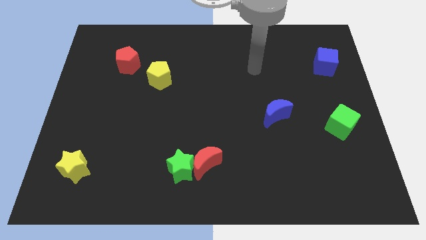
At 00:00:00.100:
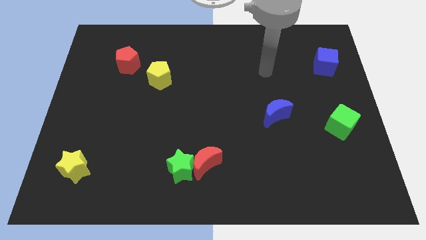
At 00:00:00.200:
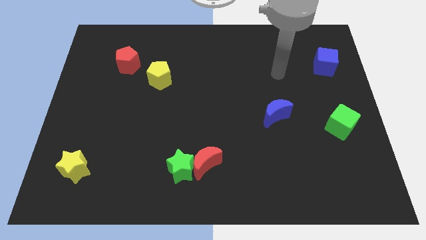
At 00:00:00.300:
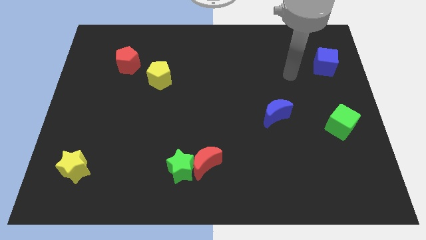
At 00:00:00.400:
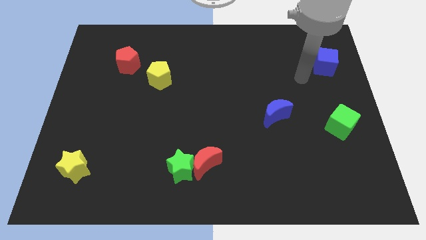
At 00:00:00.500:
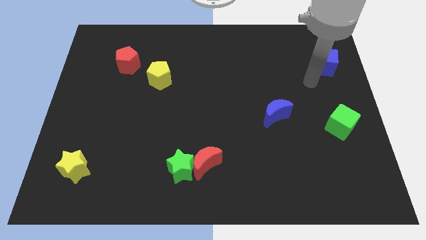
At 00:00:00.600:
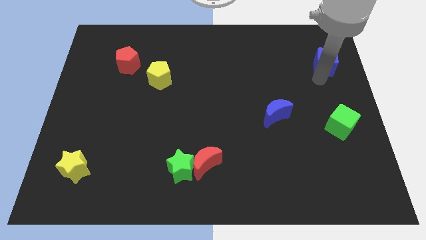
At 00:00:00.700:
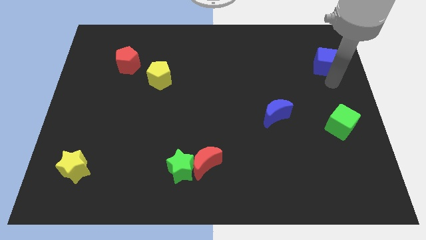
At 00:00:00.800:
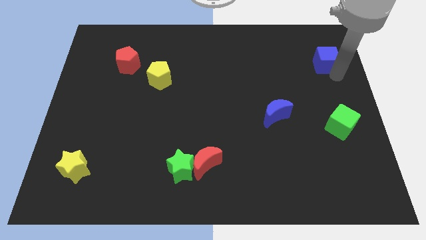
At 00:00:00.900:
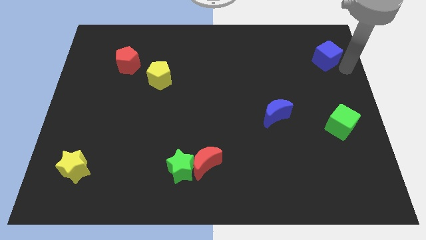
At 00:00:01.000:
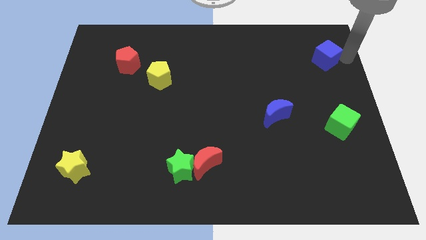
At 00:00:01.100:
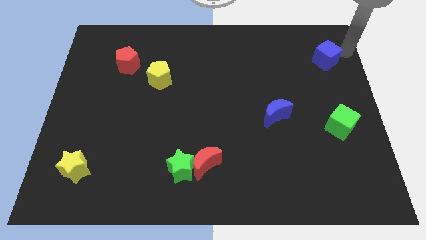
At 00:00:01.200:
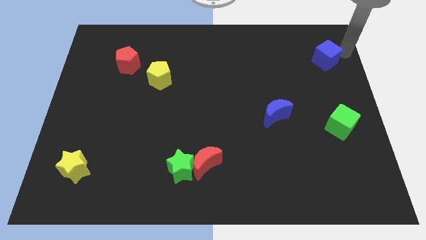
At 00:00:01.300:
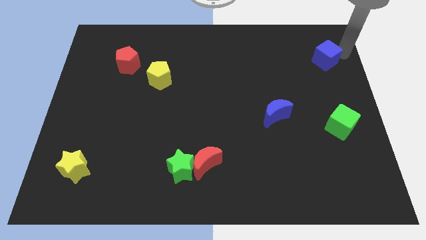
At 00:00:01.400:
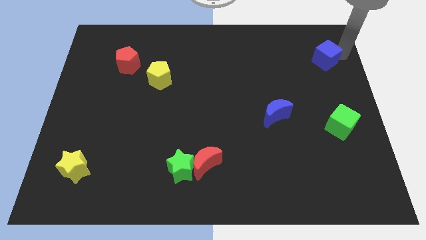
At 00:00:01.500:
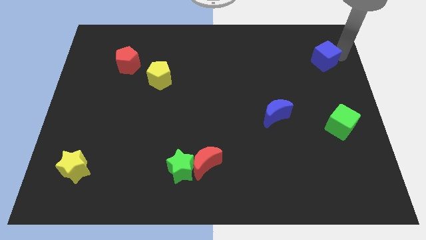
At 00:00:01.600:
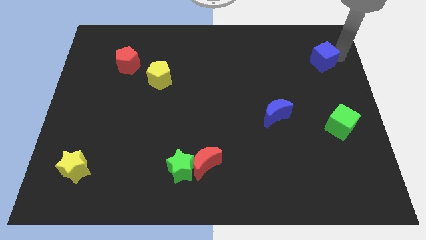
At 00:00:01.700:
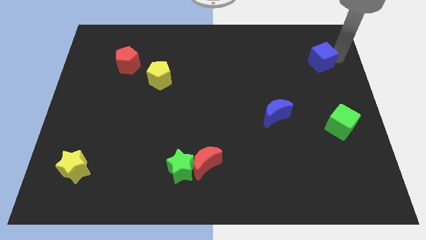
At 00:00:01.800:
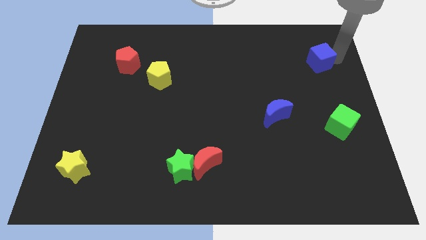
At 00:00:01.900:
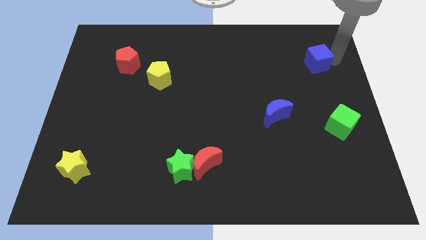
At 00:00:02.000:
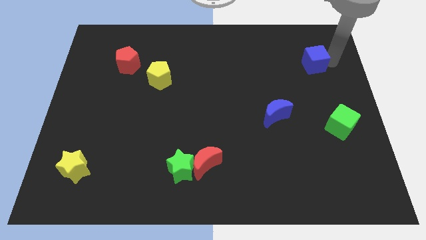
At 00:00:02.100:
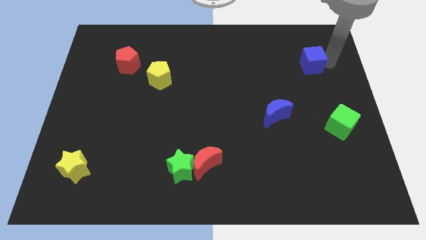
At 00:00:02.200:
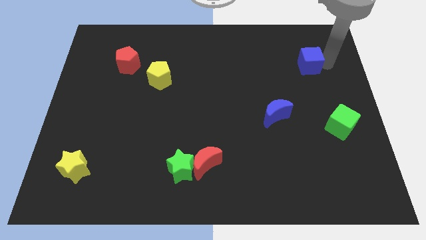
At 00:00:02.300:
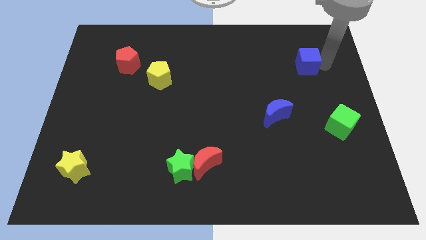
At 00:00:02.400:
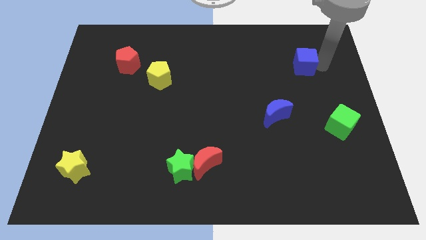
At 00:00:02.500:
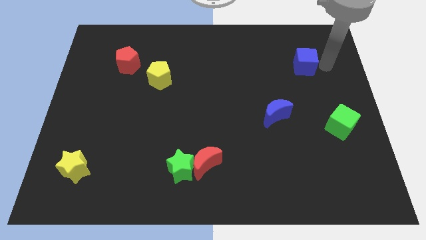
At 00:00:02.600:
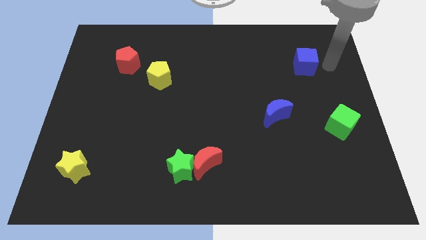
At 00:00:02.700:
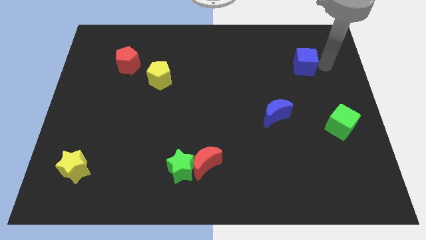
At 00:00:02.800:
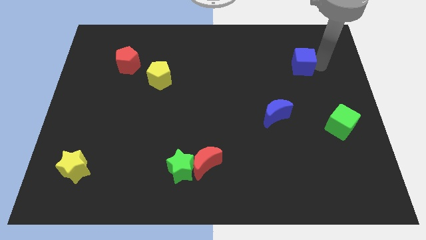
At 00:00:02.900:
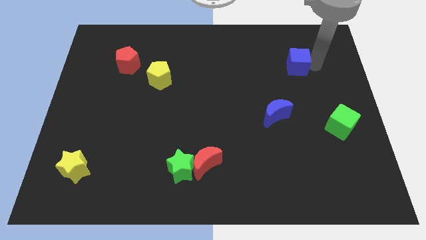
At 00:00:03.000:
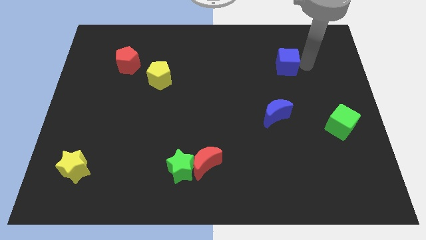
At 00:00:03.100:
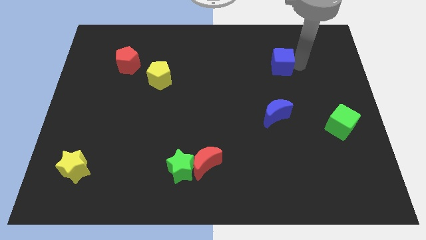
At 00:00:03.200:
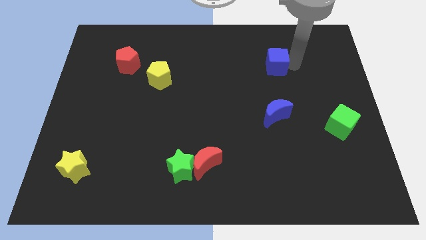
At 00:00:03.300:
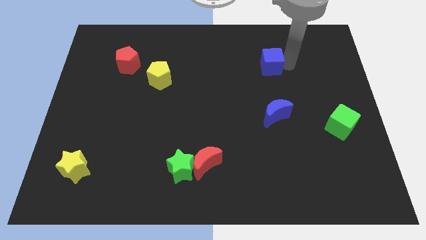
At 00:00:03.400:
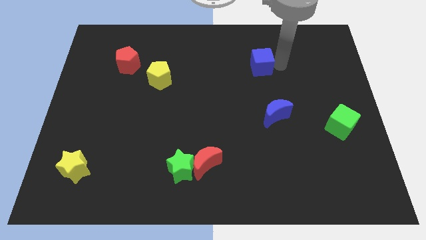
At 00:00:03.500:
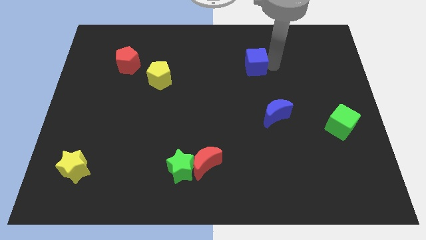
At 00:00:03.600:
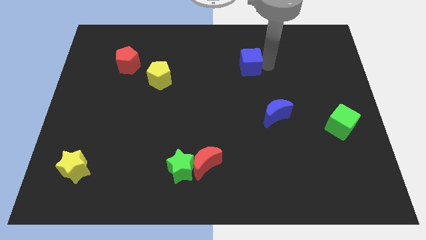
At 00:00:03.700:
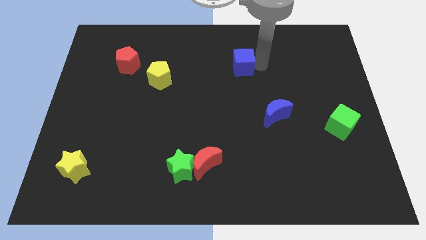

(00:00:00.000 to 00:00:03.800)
move the blue cube left

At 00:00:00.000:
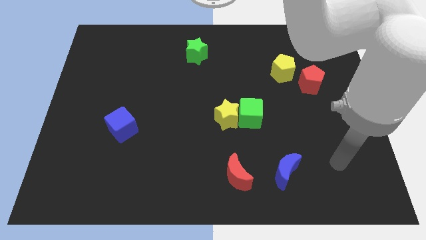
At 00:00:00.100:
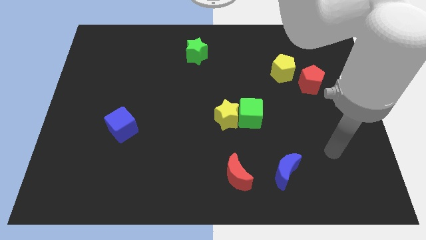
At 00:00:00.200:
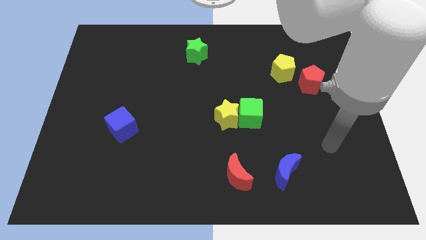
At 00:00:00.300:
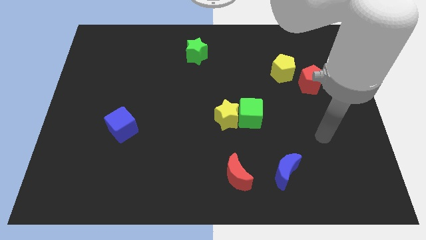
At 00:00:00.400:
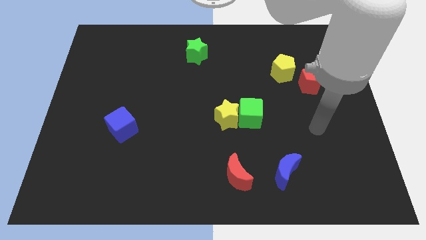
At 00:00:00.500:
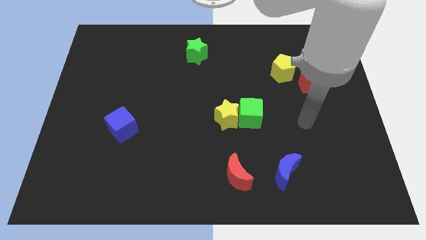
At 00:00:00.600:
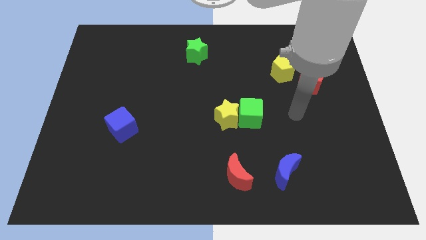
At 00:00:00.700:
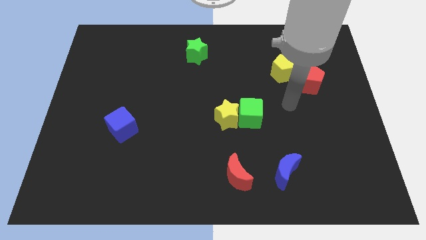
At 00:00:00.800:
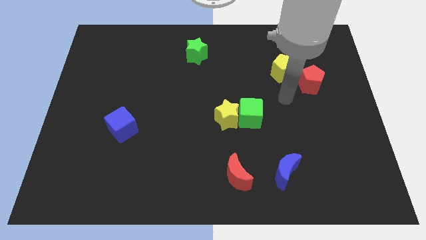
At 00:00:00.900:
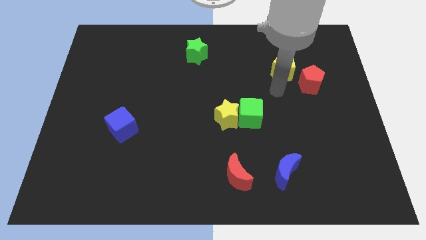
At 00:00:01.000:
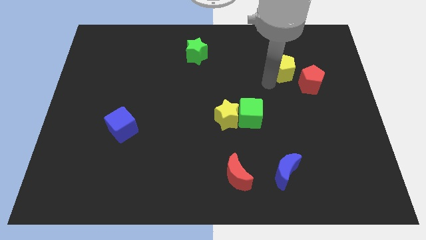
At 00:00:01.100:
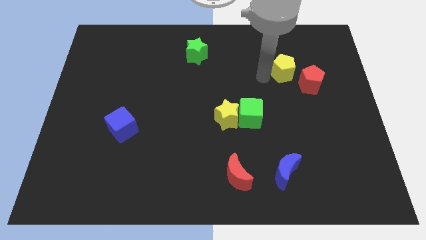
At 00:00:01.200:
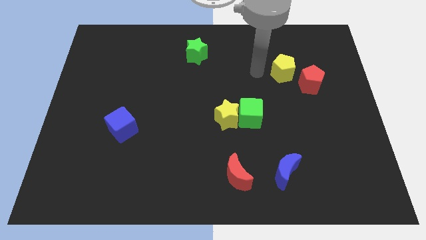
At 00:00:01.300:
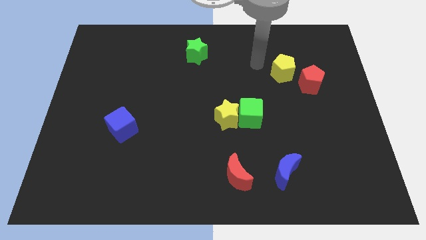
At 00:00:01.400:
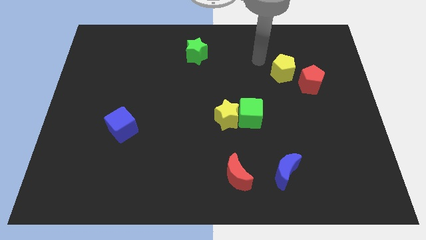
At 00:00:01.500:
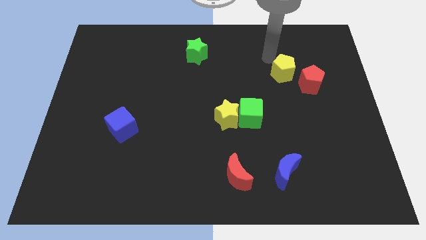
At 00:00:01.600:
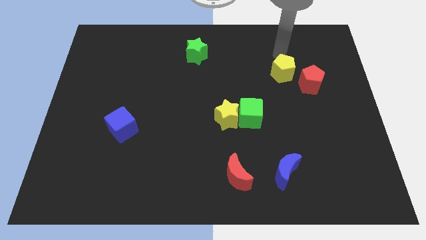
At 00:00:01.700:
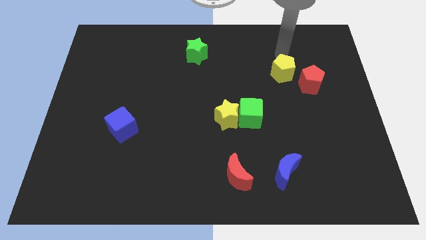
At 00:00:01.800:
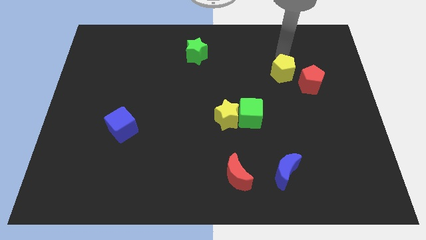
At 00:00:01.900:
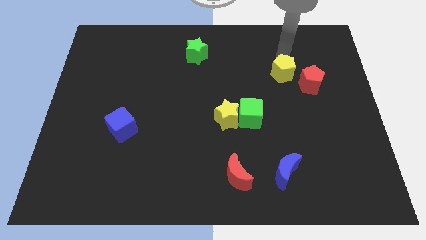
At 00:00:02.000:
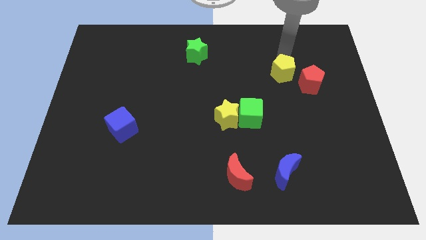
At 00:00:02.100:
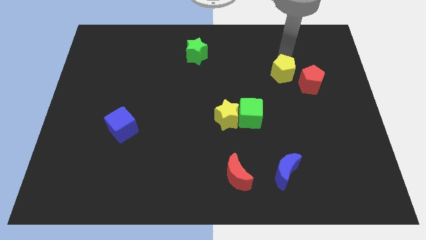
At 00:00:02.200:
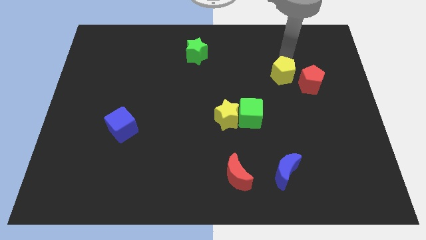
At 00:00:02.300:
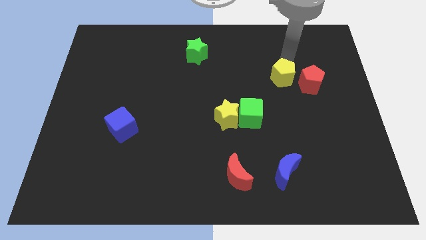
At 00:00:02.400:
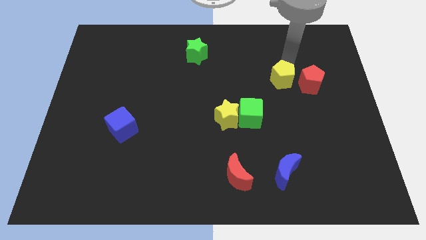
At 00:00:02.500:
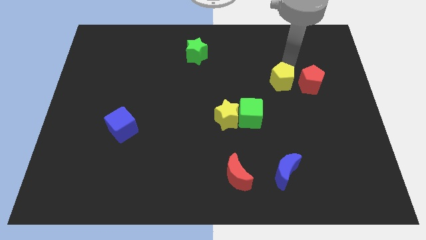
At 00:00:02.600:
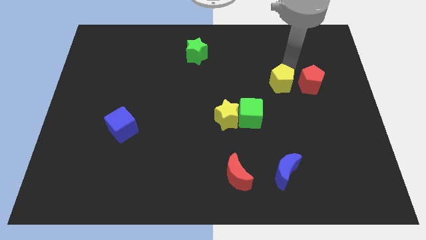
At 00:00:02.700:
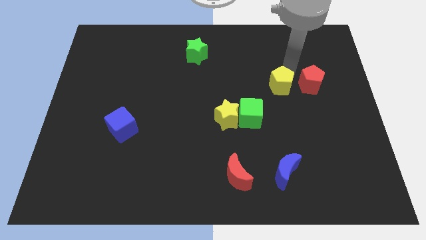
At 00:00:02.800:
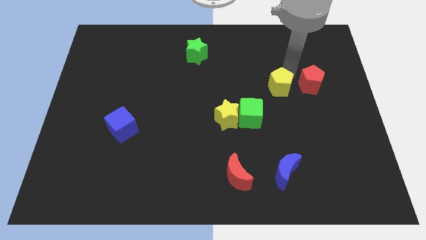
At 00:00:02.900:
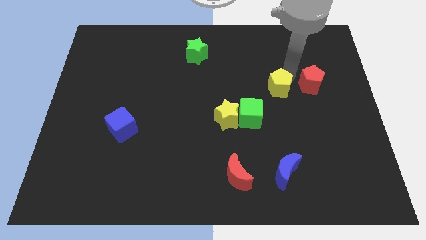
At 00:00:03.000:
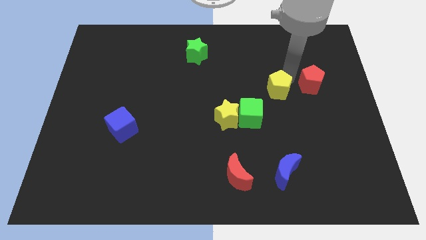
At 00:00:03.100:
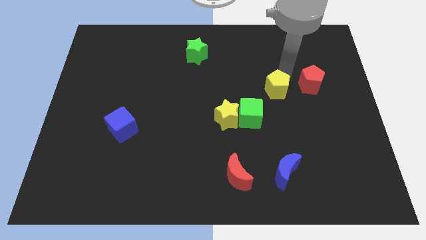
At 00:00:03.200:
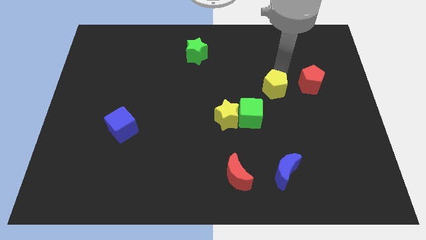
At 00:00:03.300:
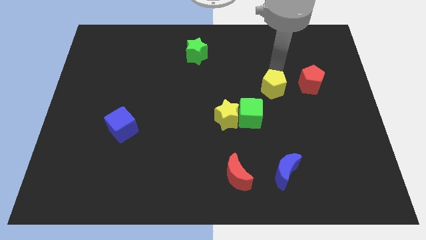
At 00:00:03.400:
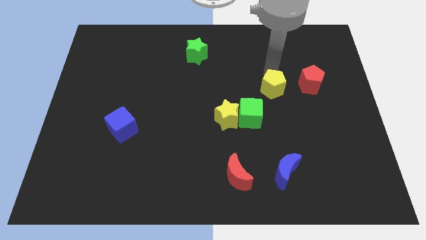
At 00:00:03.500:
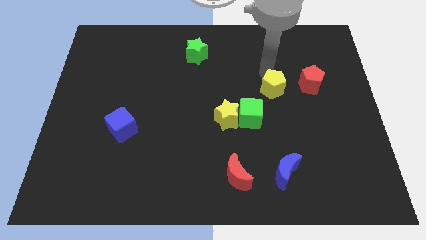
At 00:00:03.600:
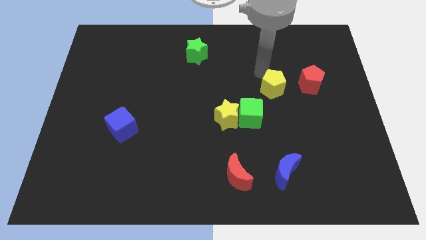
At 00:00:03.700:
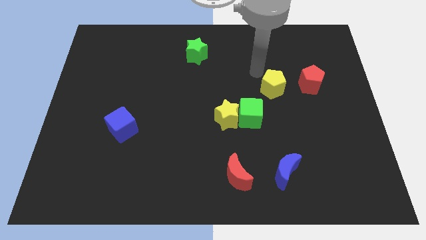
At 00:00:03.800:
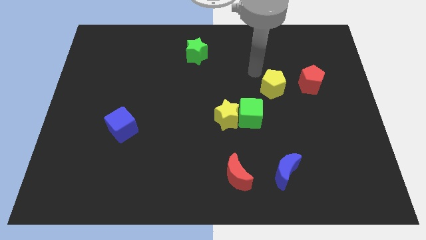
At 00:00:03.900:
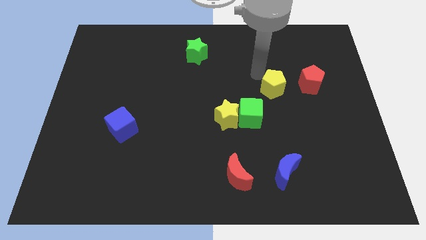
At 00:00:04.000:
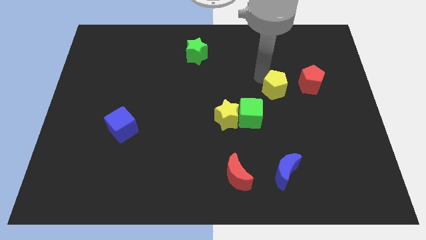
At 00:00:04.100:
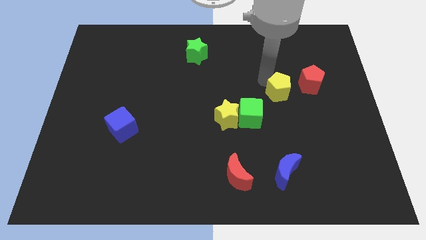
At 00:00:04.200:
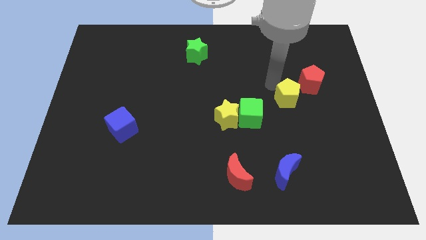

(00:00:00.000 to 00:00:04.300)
slide the yellow pentagon downwards somewhat
